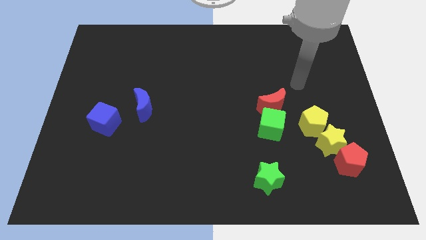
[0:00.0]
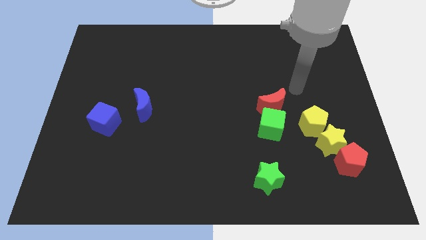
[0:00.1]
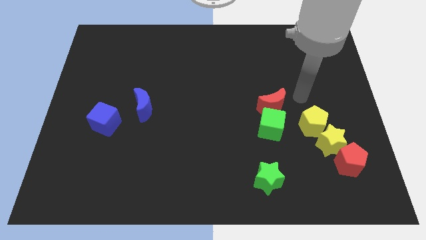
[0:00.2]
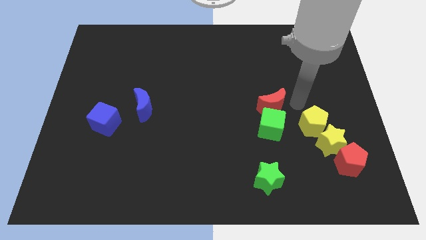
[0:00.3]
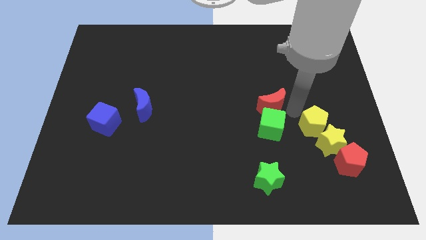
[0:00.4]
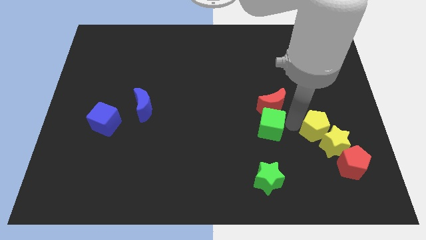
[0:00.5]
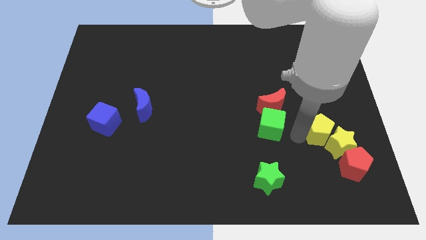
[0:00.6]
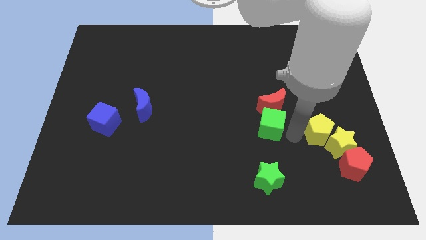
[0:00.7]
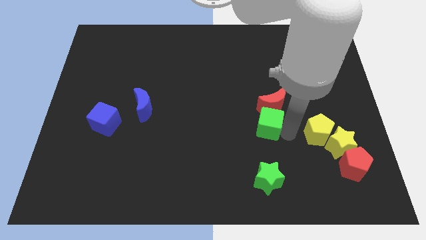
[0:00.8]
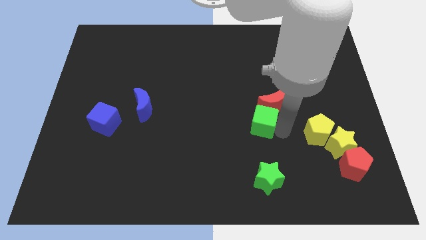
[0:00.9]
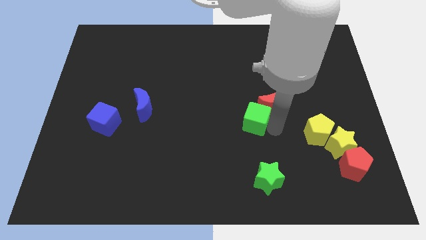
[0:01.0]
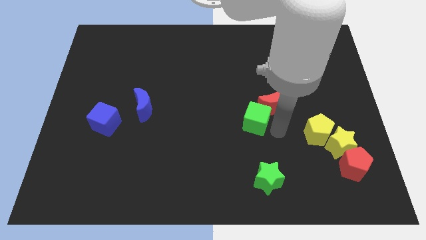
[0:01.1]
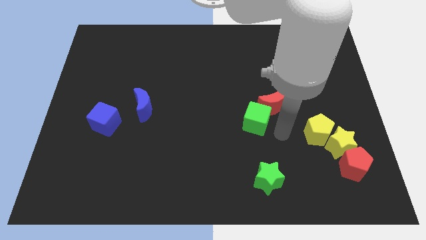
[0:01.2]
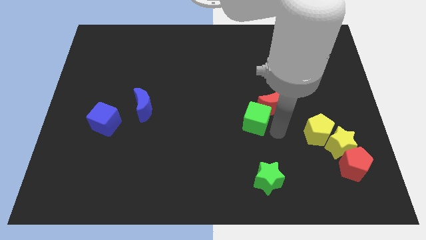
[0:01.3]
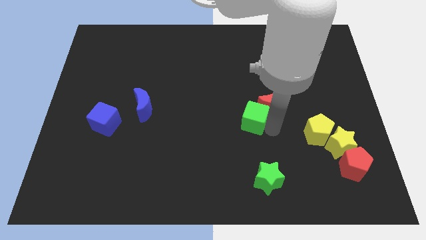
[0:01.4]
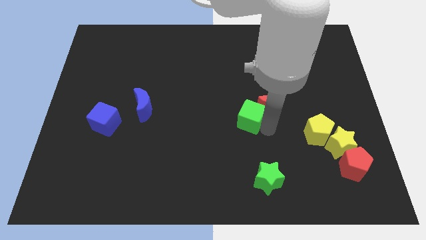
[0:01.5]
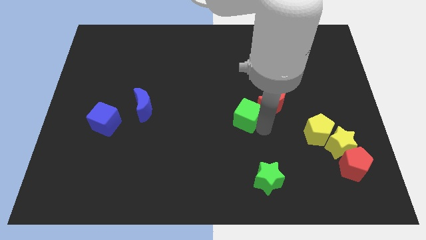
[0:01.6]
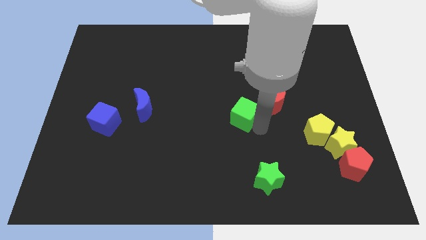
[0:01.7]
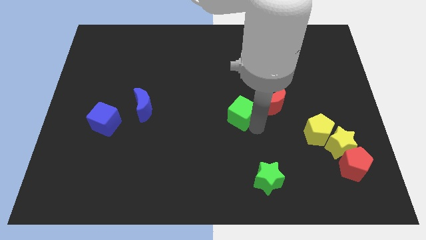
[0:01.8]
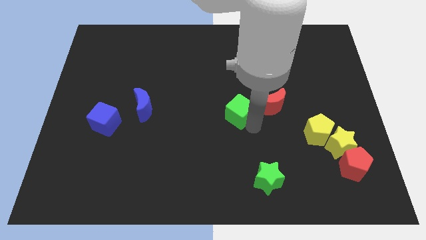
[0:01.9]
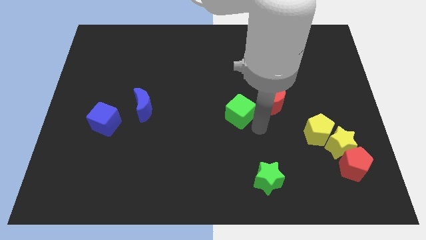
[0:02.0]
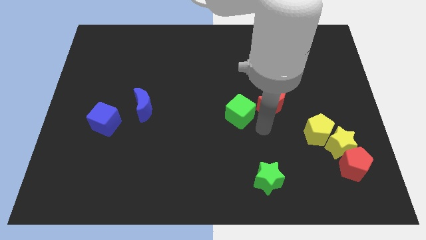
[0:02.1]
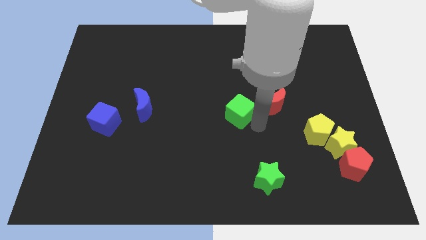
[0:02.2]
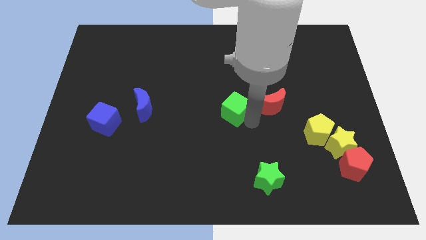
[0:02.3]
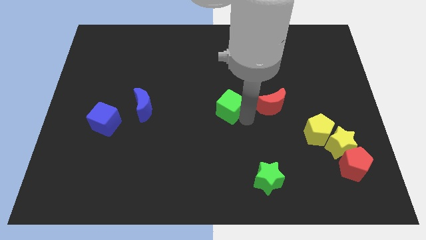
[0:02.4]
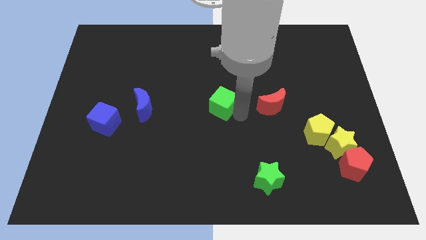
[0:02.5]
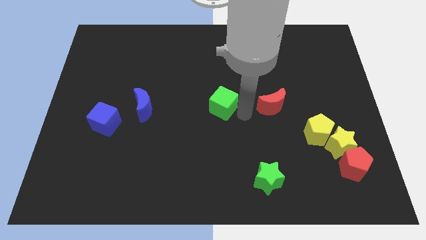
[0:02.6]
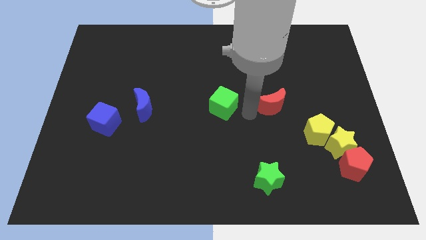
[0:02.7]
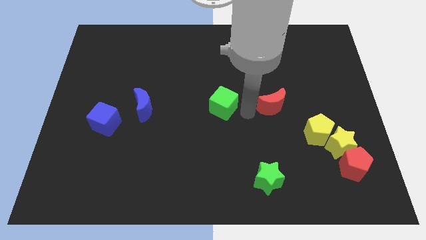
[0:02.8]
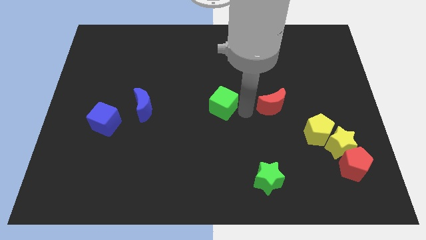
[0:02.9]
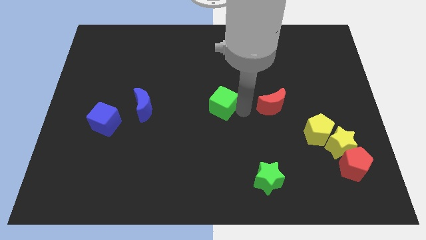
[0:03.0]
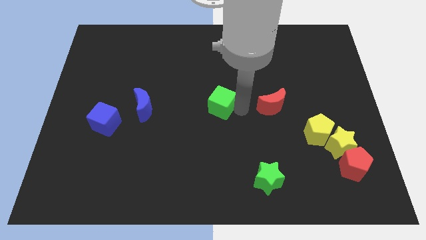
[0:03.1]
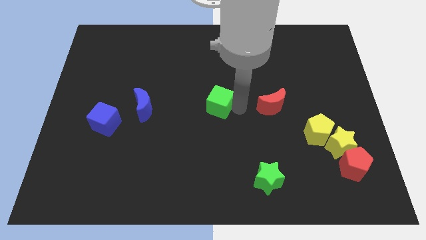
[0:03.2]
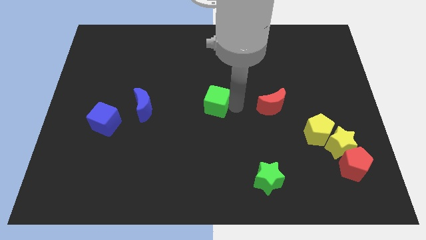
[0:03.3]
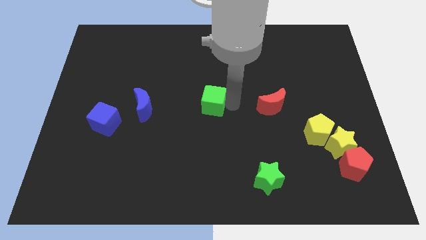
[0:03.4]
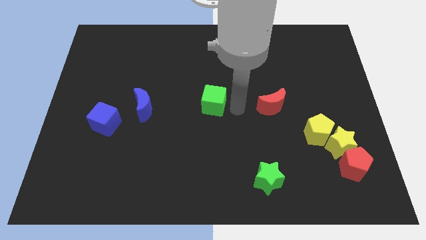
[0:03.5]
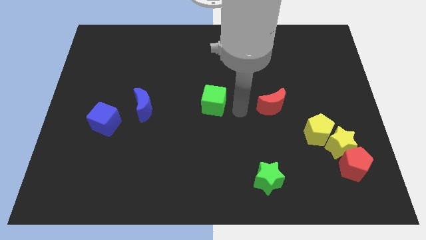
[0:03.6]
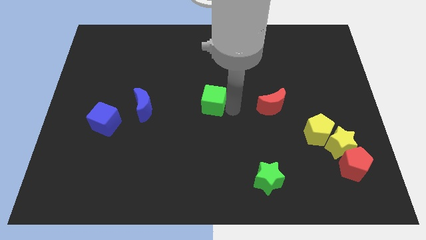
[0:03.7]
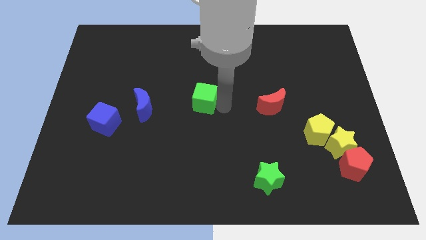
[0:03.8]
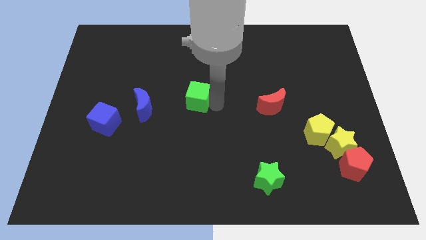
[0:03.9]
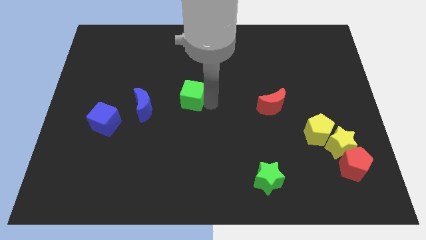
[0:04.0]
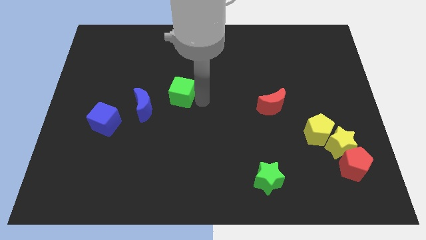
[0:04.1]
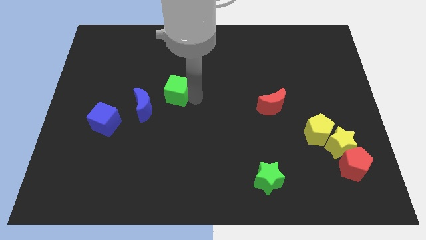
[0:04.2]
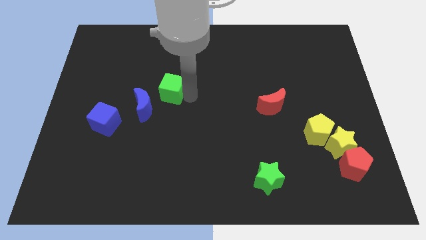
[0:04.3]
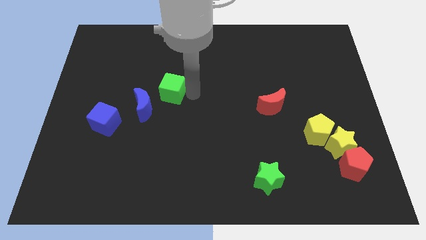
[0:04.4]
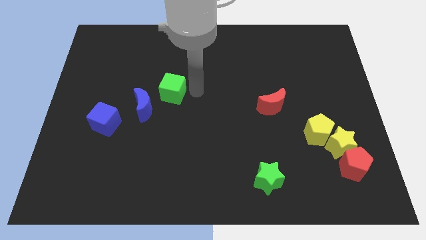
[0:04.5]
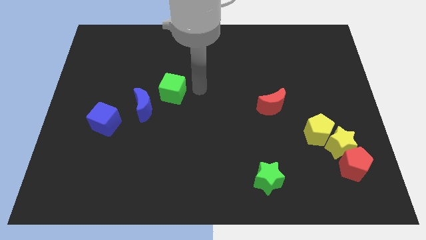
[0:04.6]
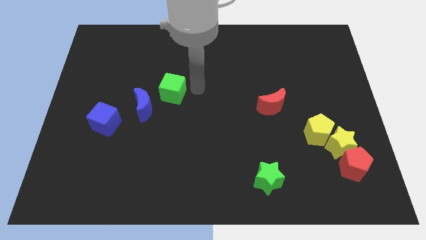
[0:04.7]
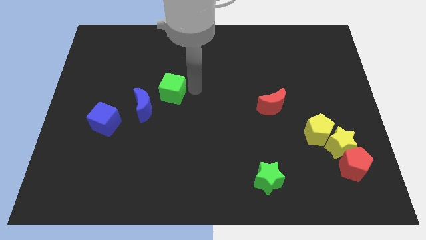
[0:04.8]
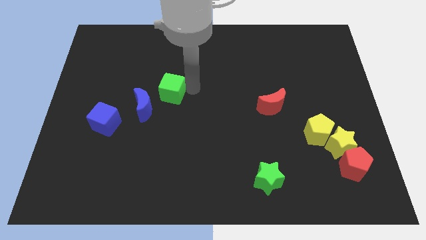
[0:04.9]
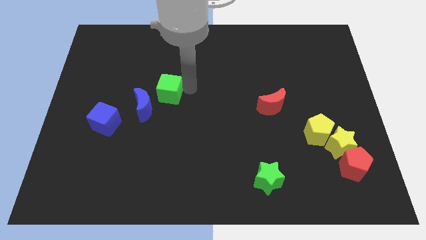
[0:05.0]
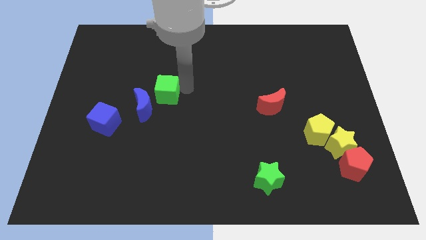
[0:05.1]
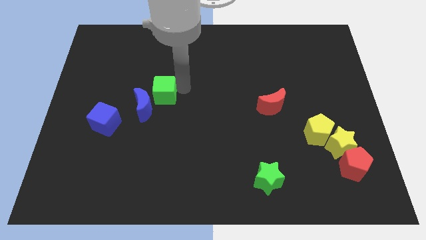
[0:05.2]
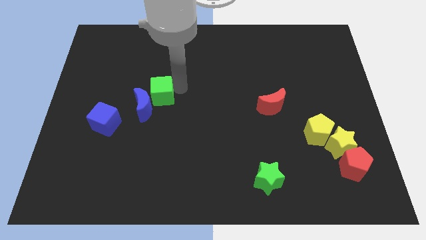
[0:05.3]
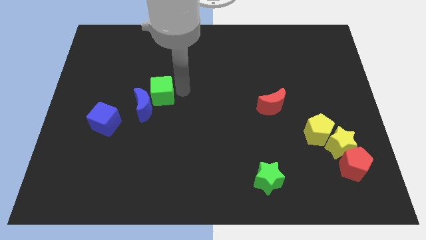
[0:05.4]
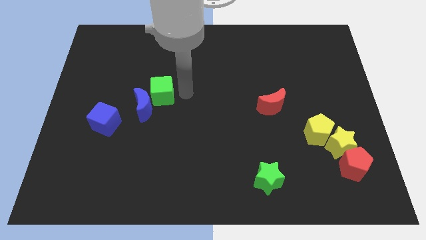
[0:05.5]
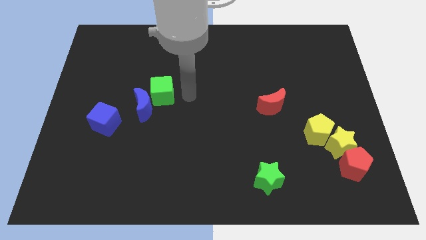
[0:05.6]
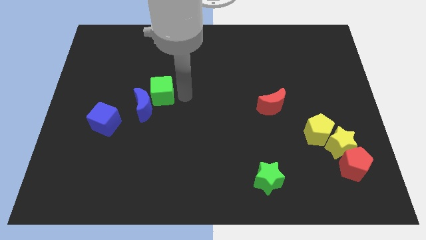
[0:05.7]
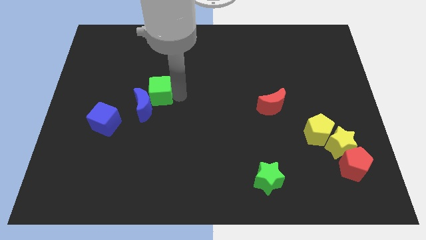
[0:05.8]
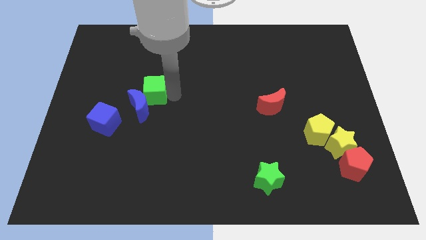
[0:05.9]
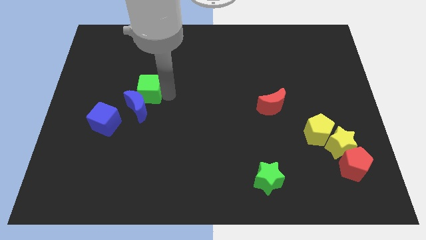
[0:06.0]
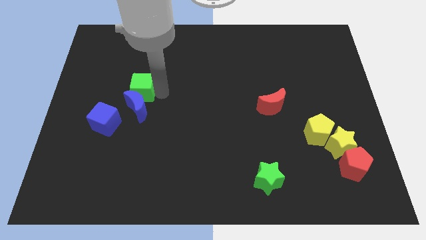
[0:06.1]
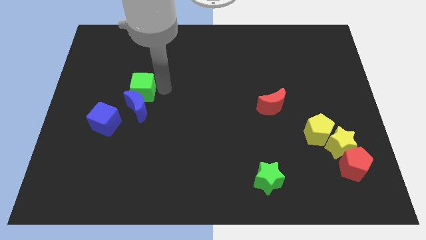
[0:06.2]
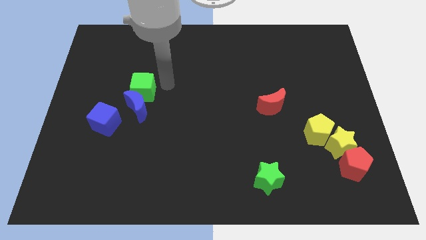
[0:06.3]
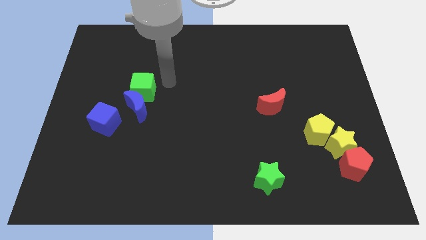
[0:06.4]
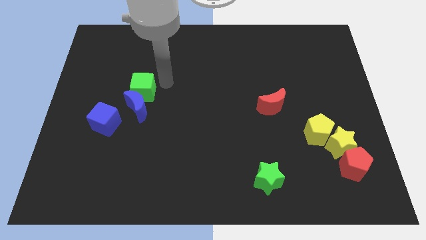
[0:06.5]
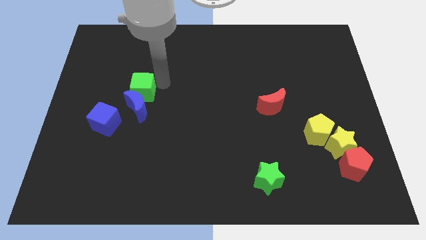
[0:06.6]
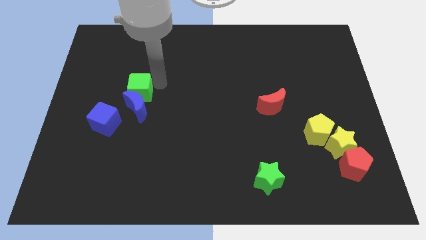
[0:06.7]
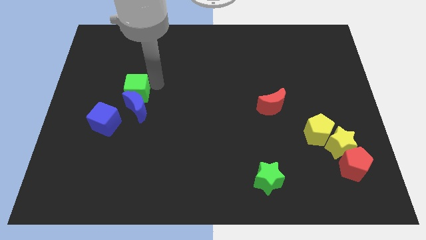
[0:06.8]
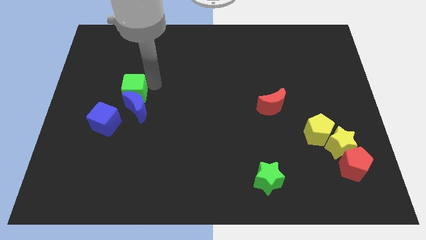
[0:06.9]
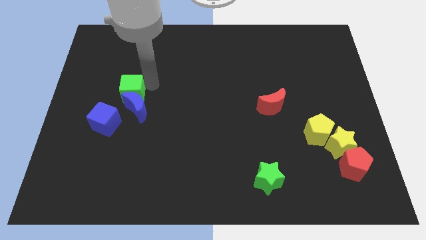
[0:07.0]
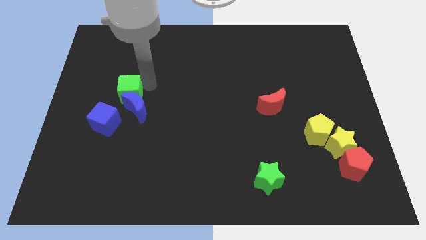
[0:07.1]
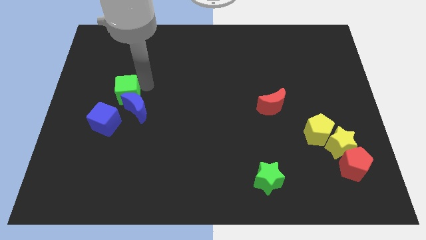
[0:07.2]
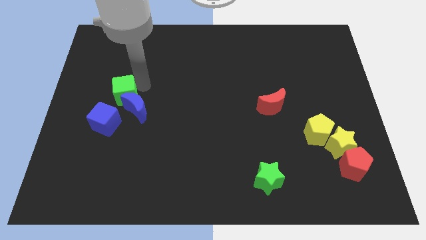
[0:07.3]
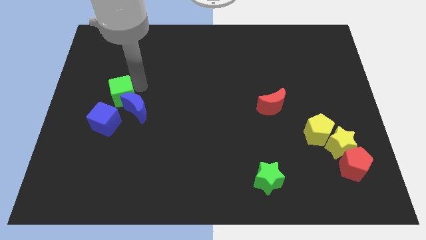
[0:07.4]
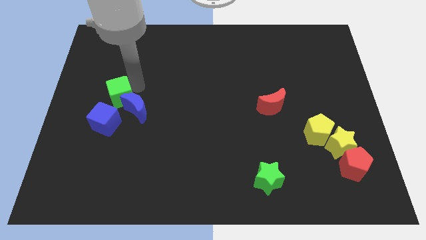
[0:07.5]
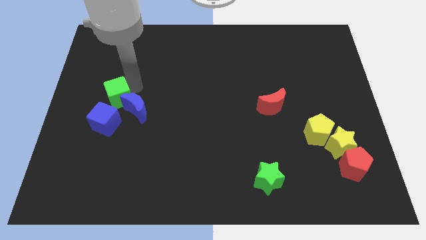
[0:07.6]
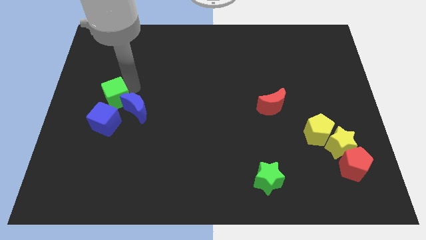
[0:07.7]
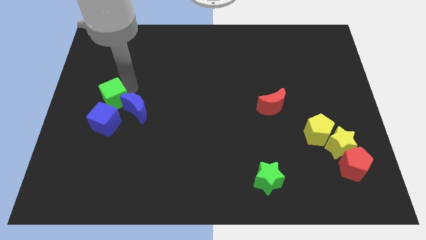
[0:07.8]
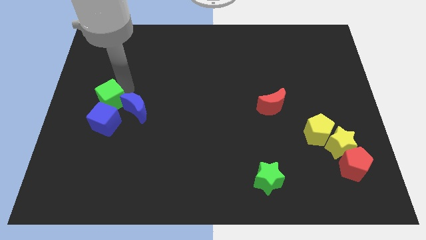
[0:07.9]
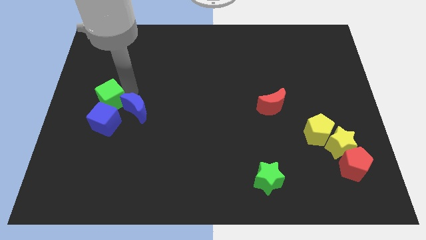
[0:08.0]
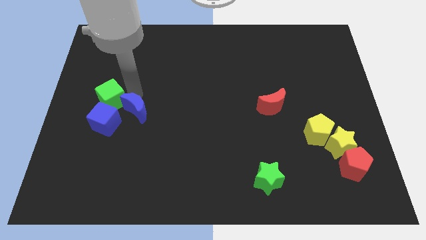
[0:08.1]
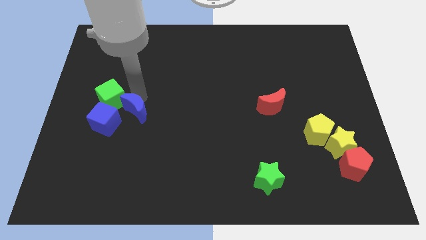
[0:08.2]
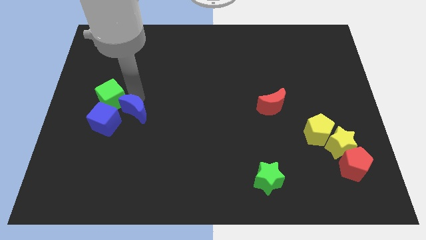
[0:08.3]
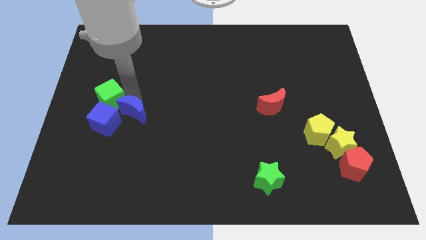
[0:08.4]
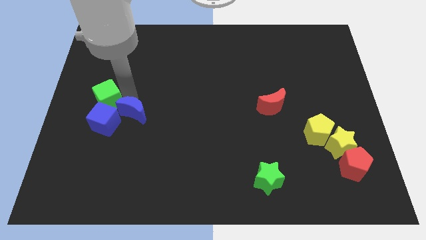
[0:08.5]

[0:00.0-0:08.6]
push the green cube to the left side of the board
